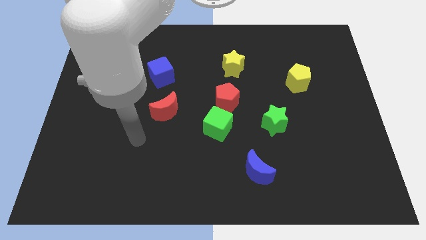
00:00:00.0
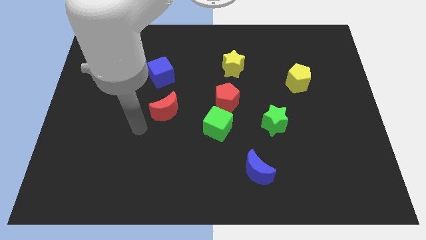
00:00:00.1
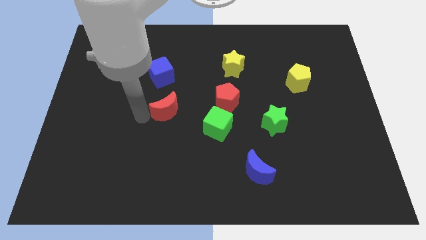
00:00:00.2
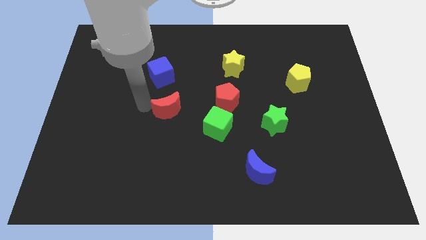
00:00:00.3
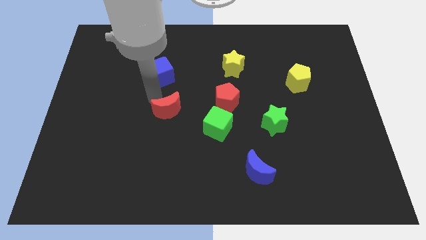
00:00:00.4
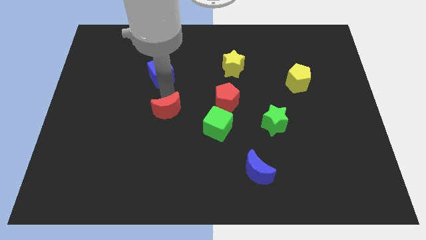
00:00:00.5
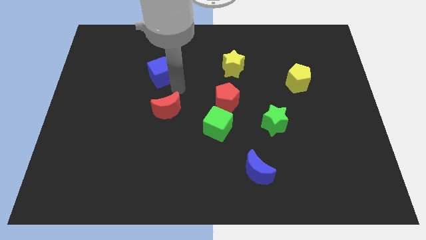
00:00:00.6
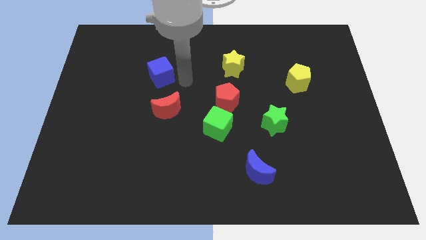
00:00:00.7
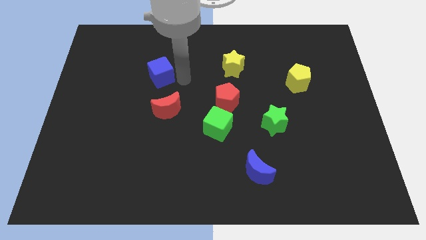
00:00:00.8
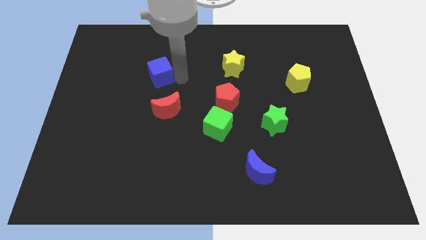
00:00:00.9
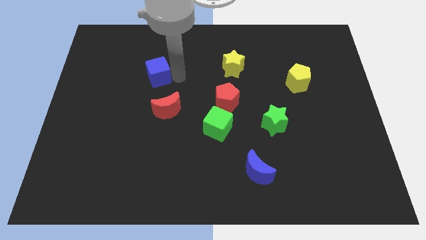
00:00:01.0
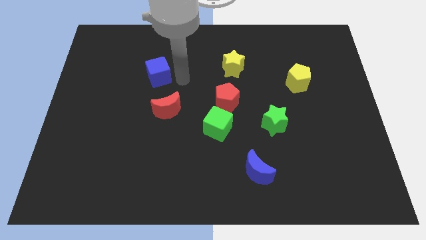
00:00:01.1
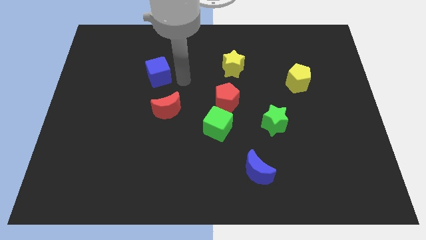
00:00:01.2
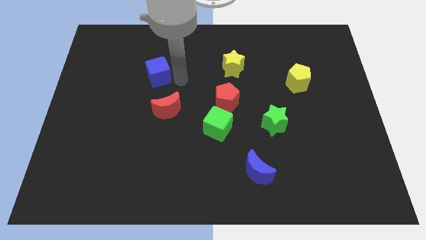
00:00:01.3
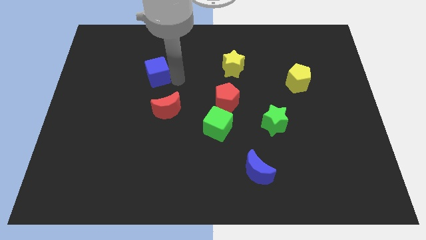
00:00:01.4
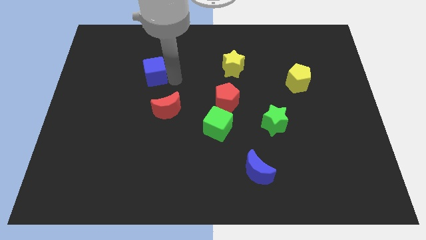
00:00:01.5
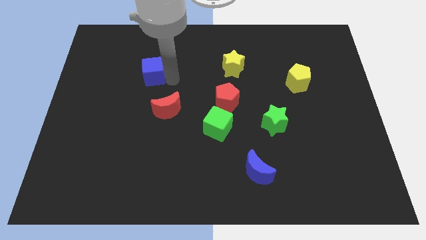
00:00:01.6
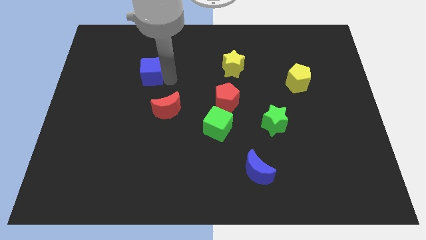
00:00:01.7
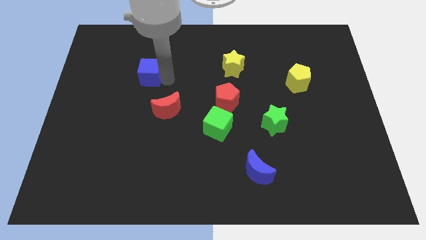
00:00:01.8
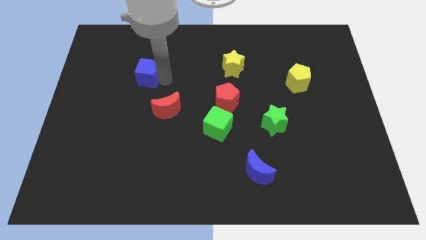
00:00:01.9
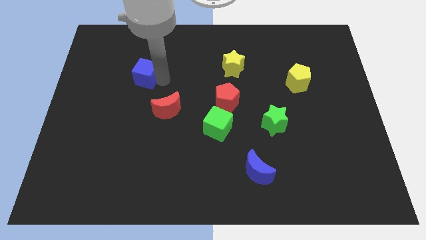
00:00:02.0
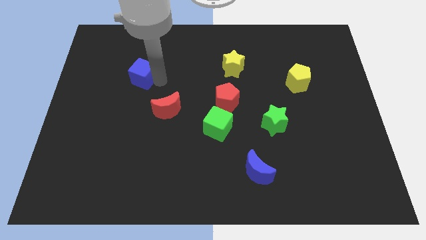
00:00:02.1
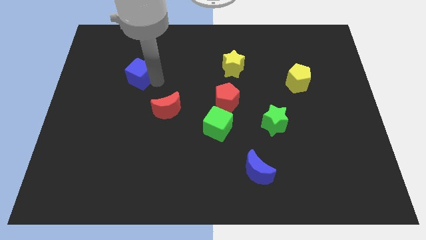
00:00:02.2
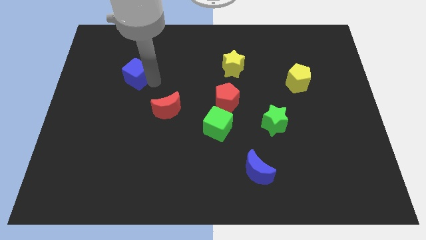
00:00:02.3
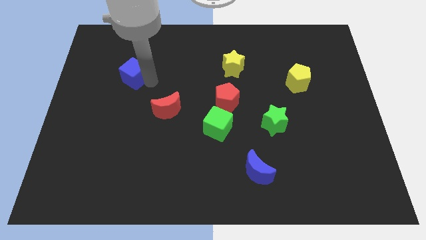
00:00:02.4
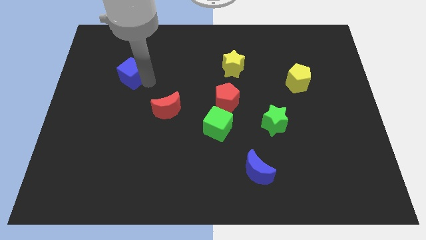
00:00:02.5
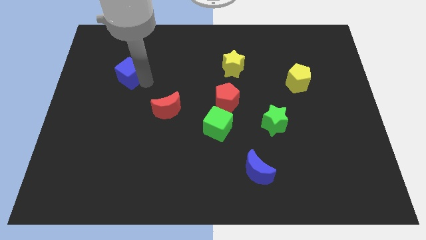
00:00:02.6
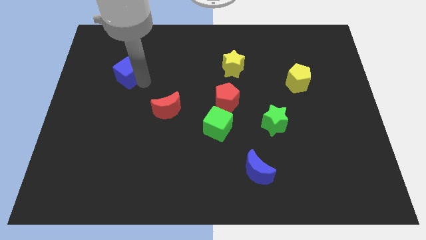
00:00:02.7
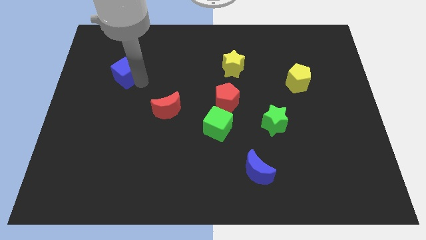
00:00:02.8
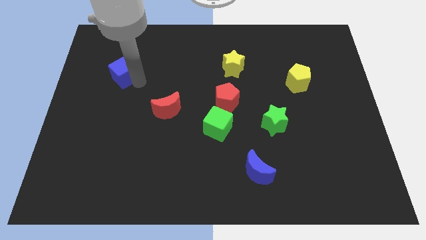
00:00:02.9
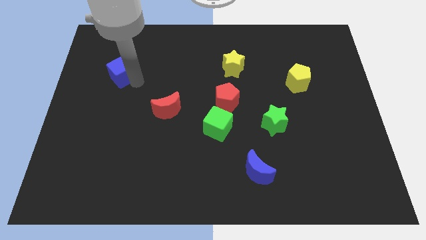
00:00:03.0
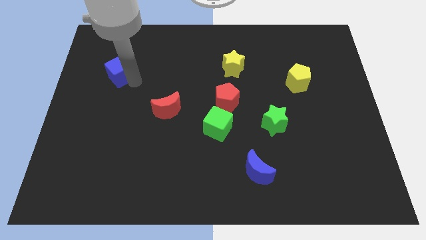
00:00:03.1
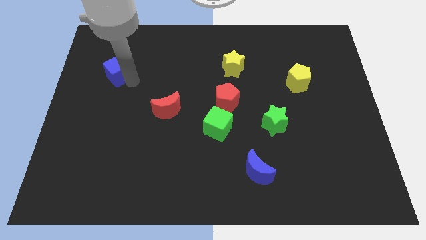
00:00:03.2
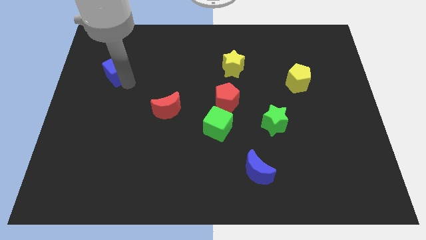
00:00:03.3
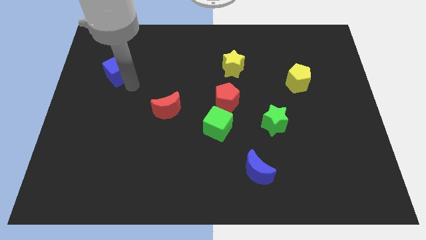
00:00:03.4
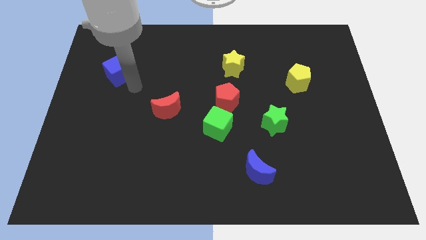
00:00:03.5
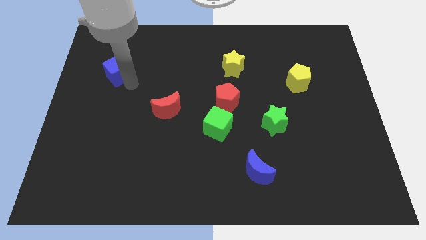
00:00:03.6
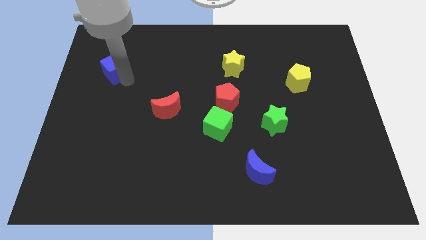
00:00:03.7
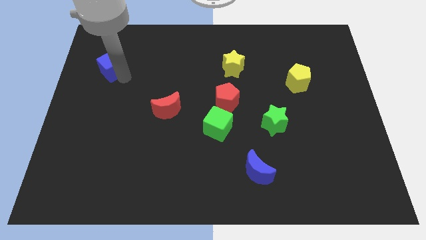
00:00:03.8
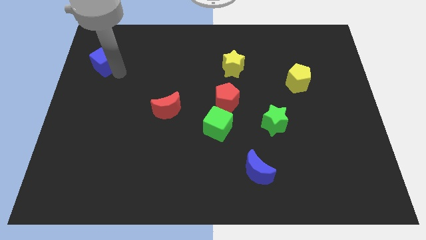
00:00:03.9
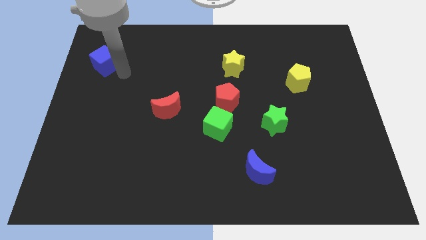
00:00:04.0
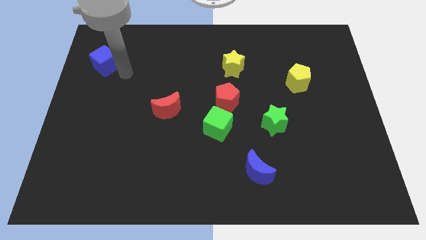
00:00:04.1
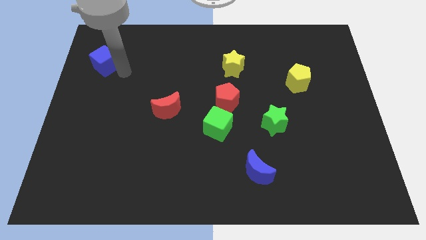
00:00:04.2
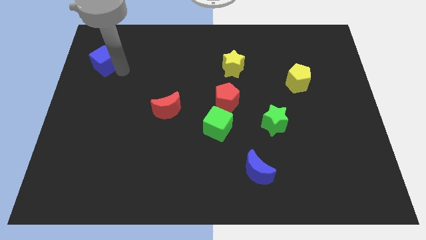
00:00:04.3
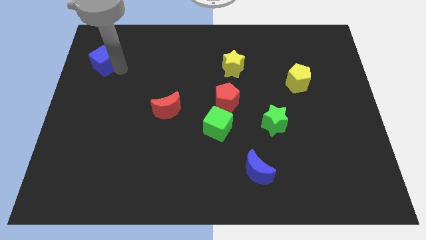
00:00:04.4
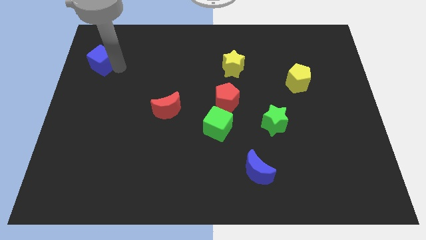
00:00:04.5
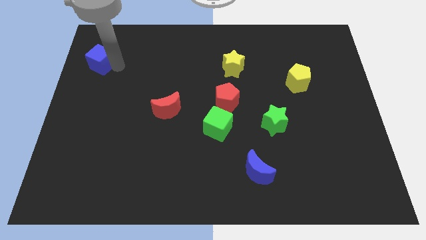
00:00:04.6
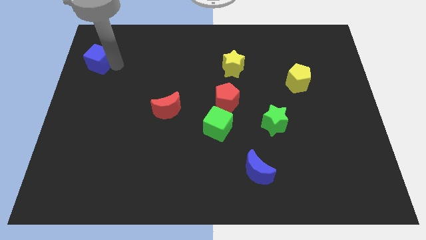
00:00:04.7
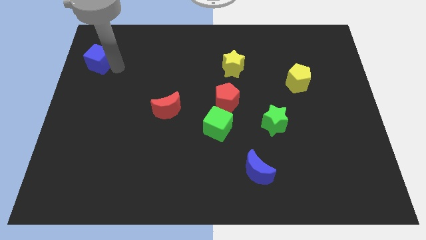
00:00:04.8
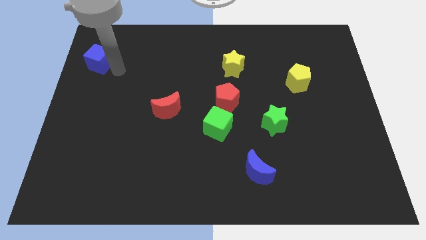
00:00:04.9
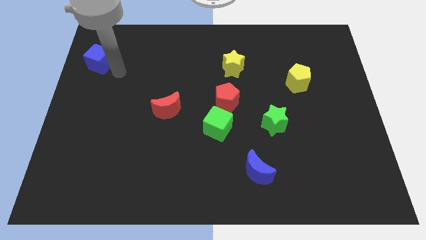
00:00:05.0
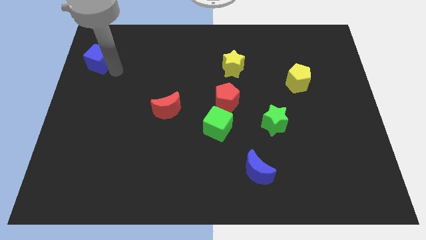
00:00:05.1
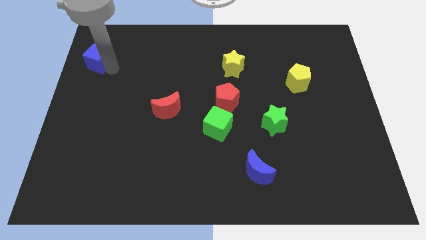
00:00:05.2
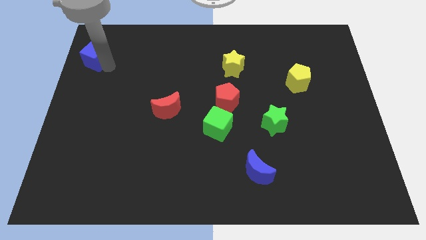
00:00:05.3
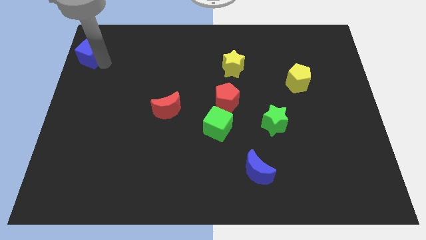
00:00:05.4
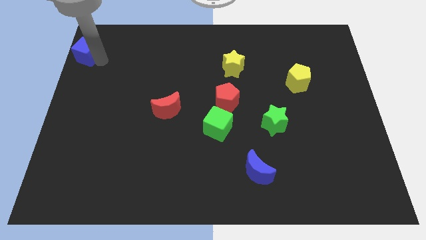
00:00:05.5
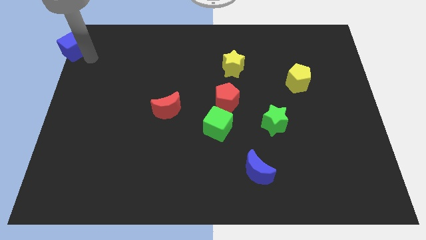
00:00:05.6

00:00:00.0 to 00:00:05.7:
move the blue cube to the top left corner

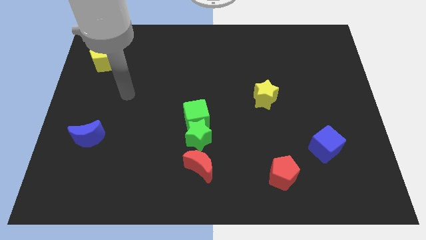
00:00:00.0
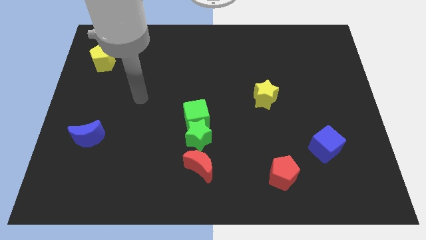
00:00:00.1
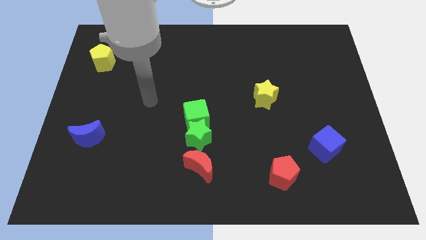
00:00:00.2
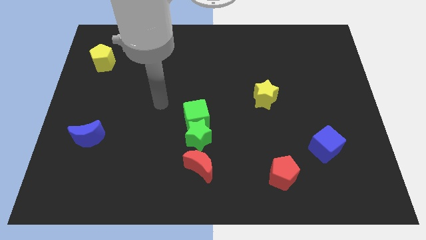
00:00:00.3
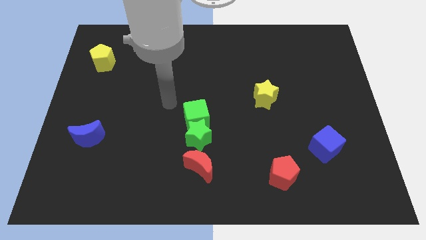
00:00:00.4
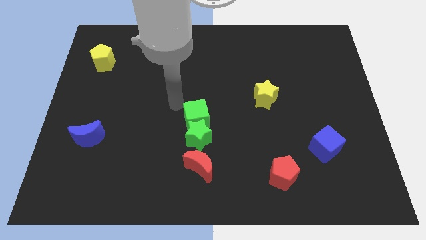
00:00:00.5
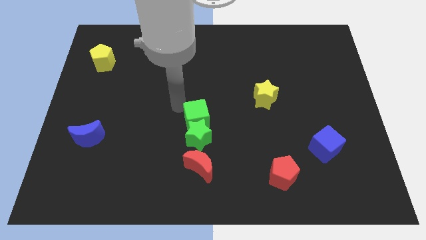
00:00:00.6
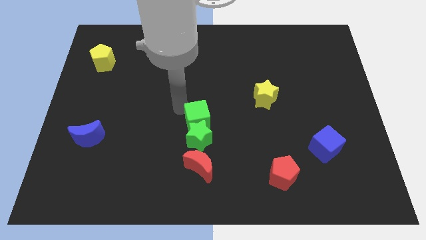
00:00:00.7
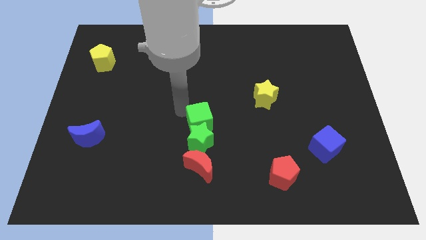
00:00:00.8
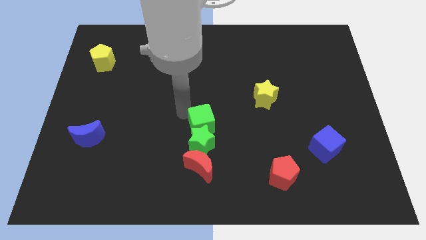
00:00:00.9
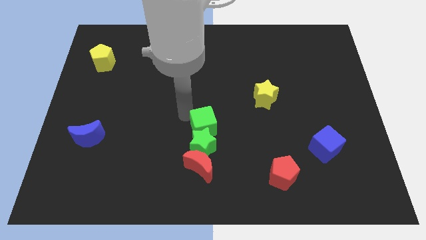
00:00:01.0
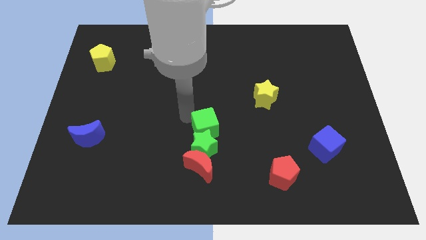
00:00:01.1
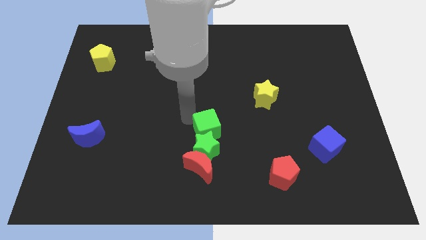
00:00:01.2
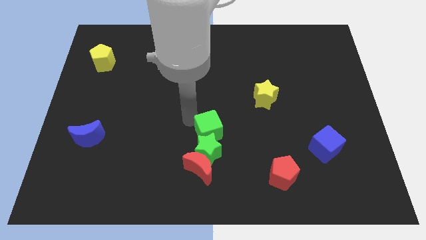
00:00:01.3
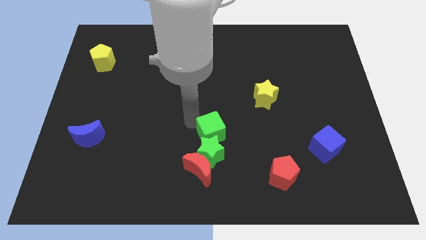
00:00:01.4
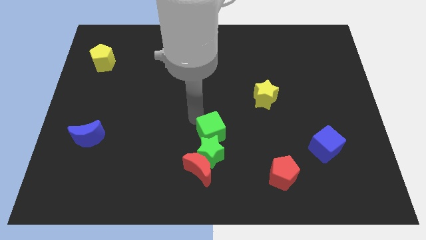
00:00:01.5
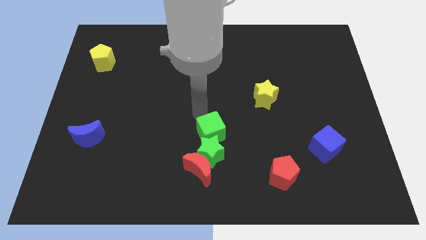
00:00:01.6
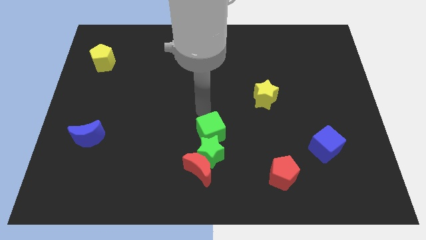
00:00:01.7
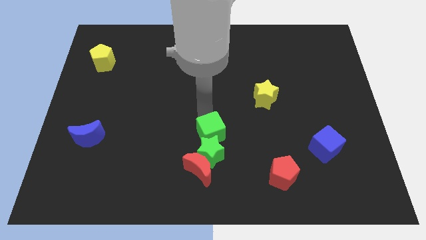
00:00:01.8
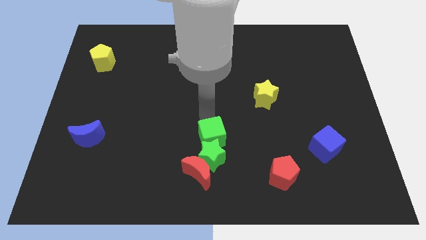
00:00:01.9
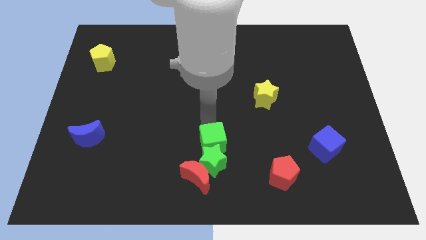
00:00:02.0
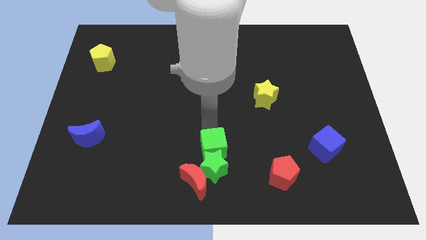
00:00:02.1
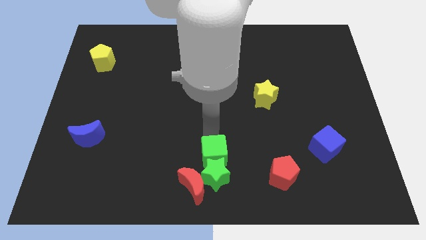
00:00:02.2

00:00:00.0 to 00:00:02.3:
slide the green cube to the bottom
